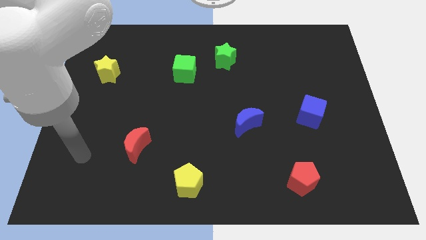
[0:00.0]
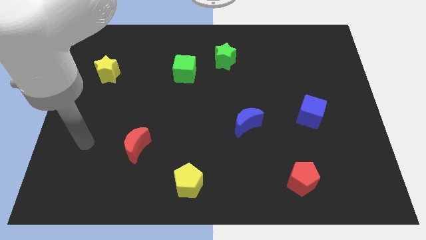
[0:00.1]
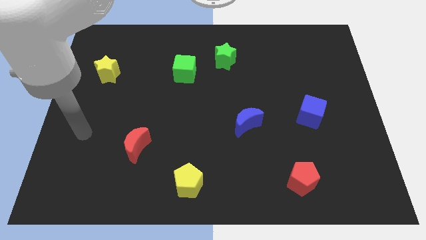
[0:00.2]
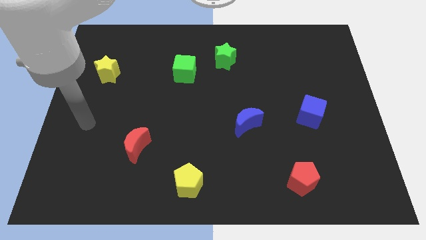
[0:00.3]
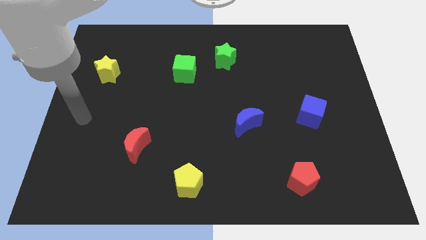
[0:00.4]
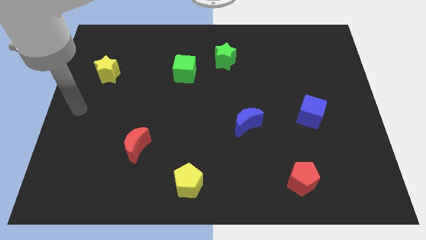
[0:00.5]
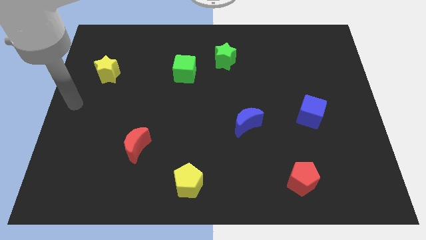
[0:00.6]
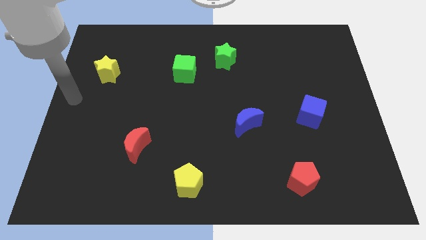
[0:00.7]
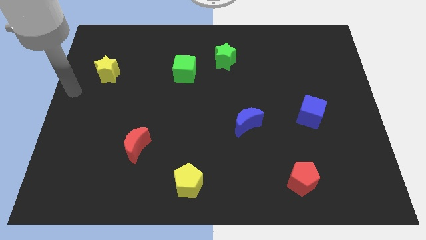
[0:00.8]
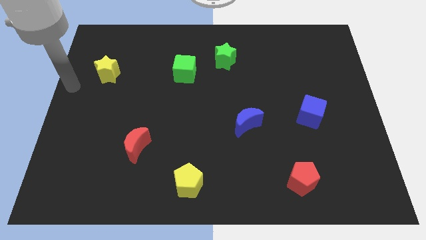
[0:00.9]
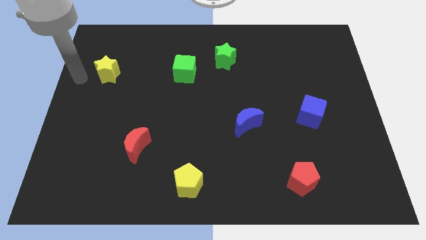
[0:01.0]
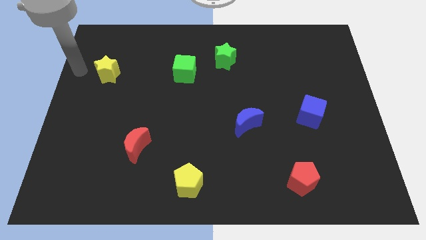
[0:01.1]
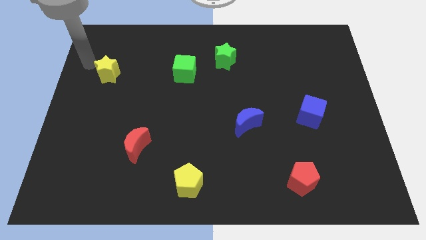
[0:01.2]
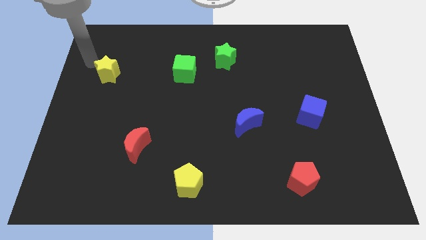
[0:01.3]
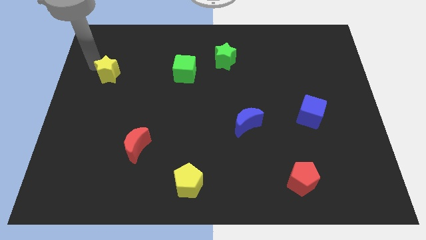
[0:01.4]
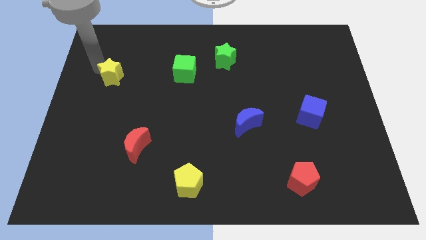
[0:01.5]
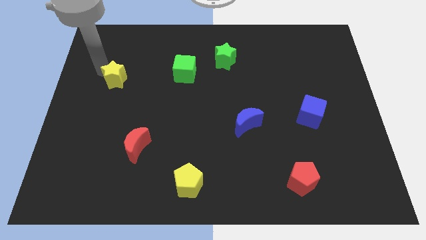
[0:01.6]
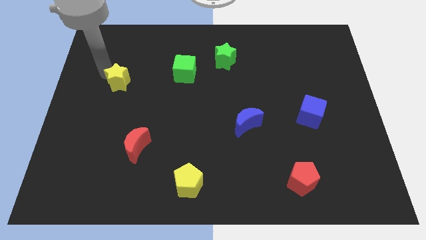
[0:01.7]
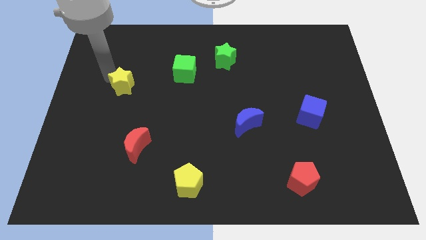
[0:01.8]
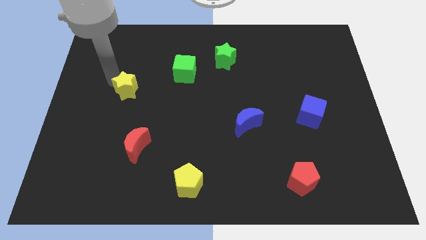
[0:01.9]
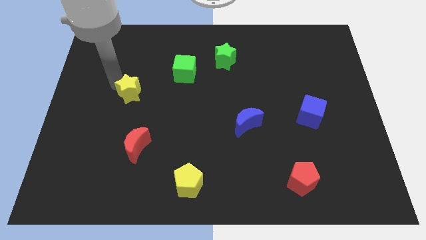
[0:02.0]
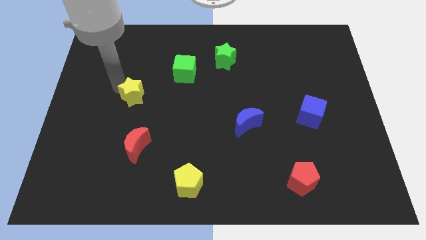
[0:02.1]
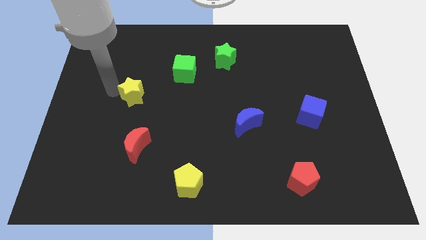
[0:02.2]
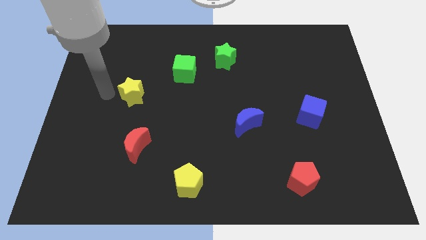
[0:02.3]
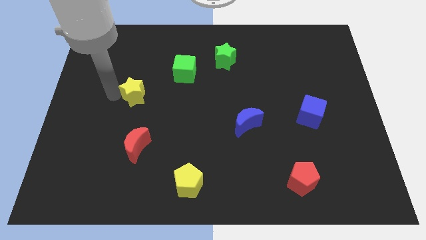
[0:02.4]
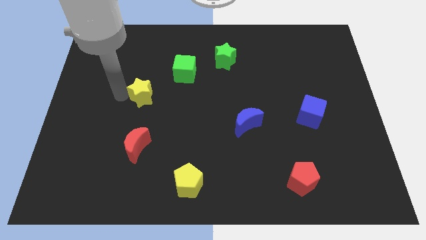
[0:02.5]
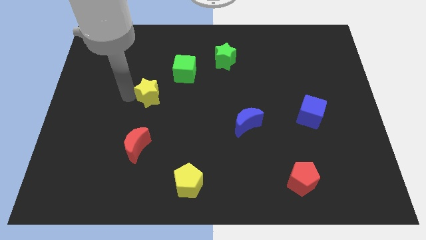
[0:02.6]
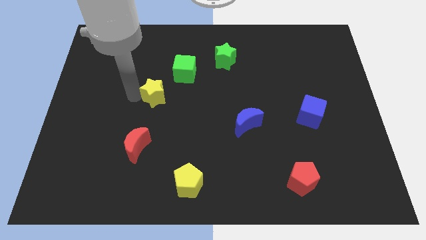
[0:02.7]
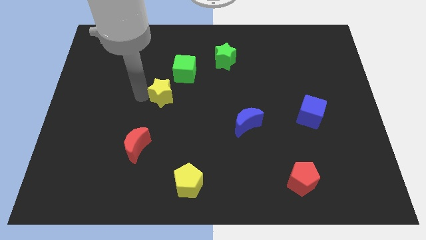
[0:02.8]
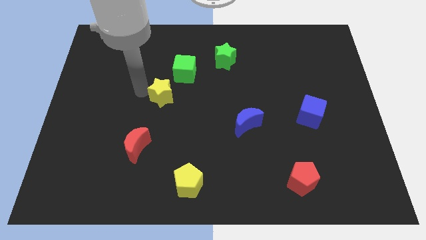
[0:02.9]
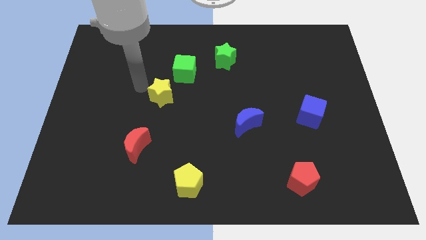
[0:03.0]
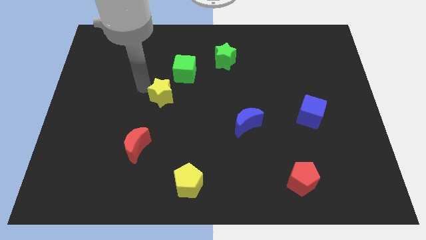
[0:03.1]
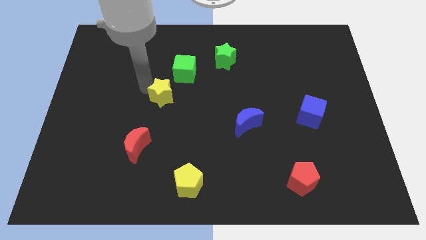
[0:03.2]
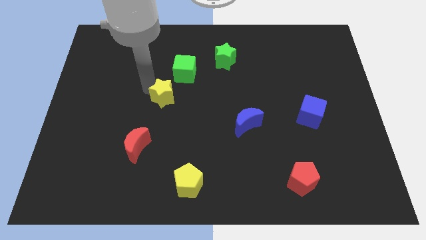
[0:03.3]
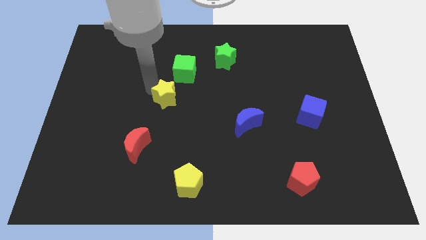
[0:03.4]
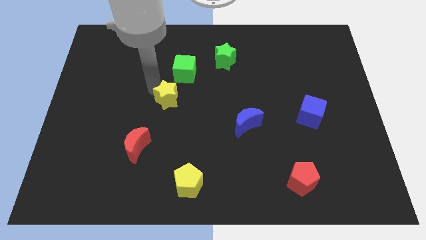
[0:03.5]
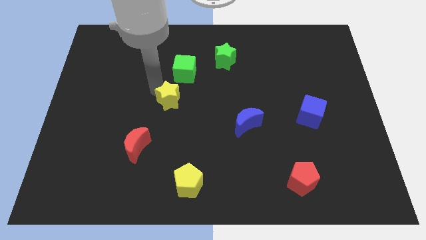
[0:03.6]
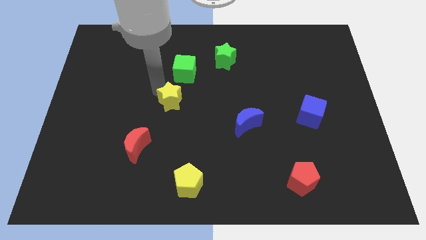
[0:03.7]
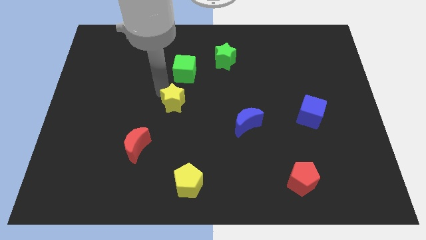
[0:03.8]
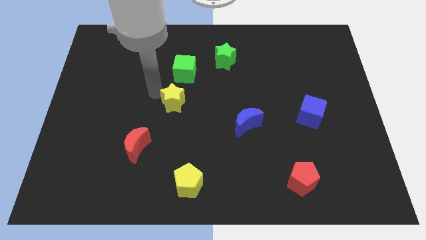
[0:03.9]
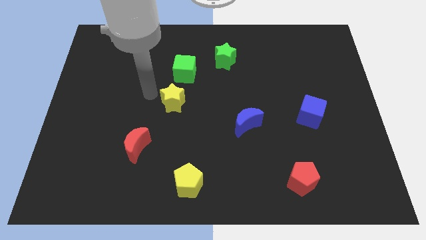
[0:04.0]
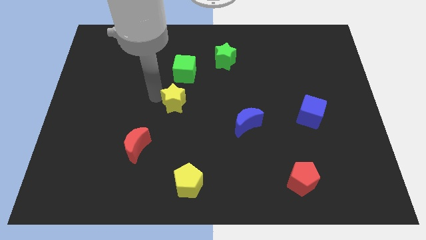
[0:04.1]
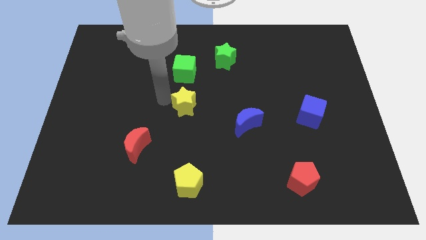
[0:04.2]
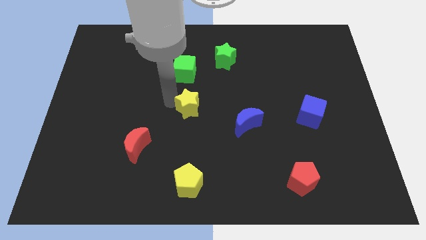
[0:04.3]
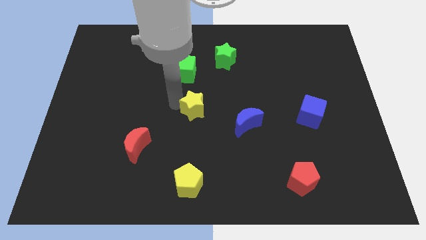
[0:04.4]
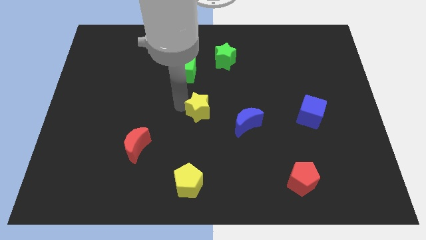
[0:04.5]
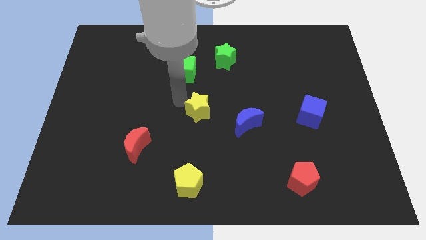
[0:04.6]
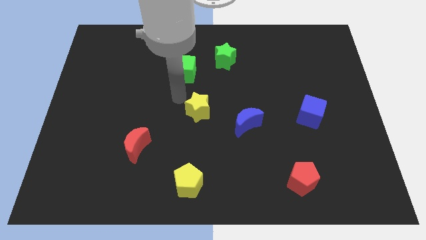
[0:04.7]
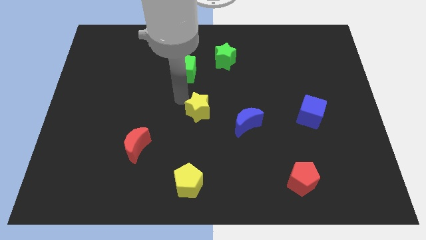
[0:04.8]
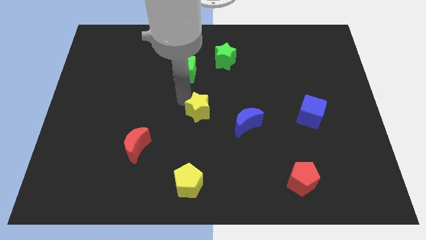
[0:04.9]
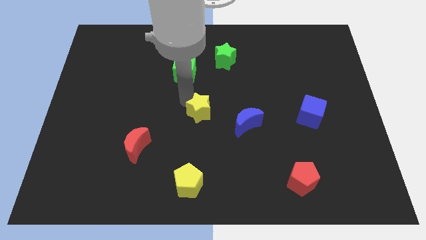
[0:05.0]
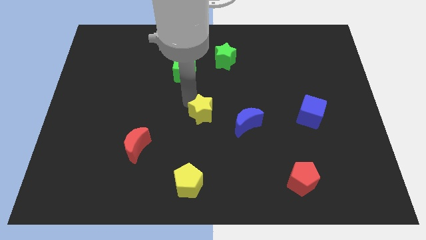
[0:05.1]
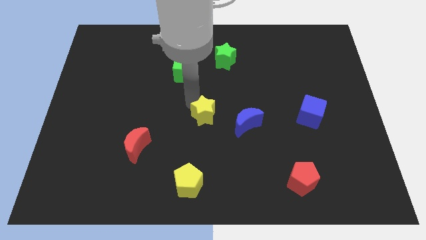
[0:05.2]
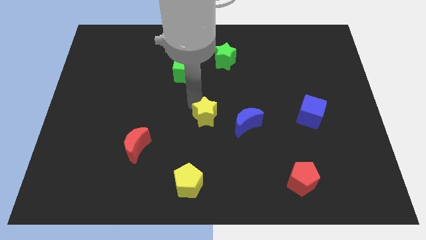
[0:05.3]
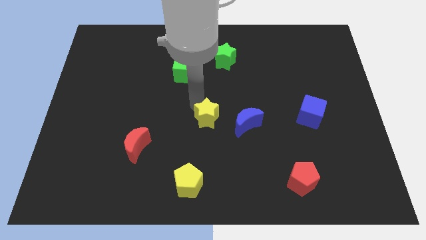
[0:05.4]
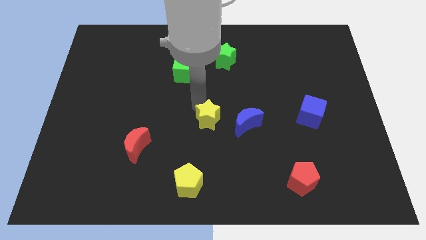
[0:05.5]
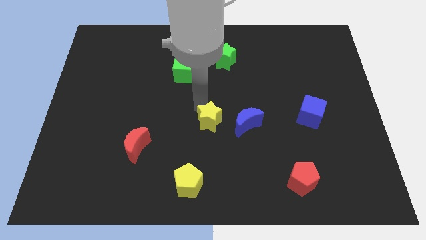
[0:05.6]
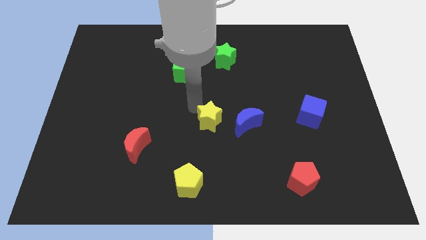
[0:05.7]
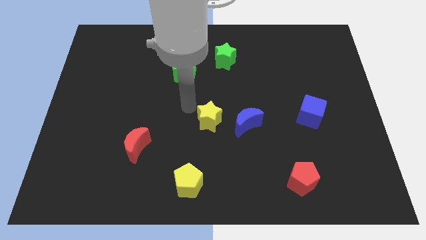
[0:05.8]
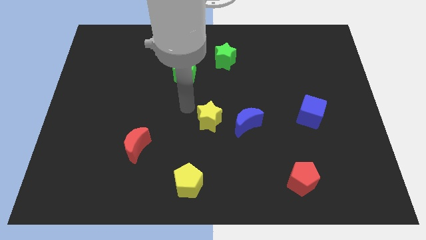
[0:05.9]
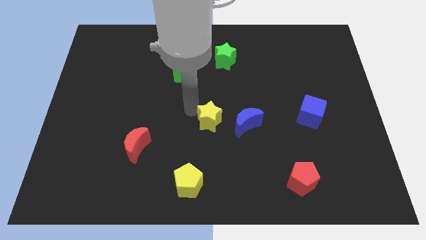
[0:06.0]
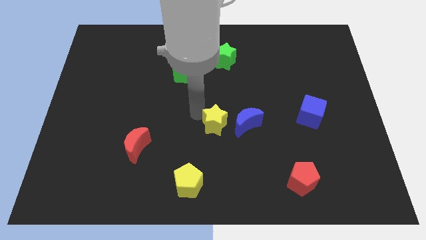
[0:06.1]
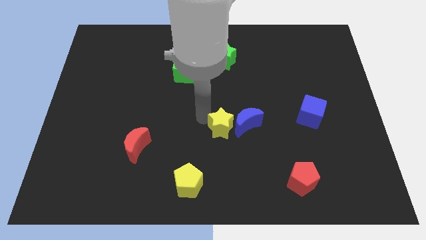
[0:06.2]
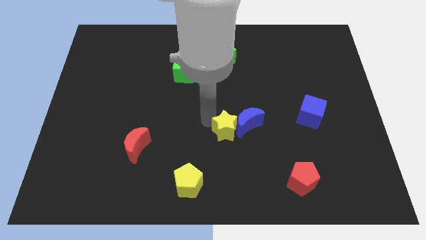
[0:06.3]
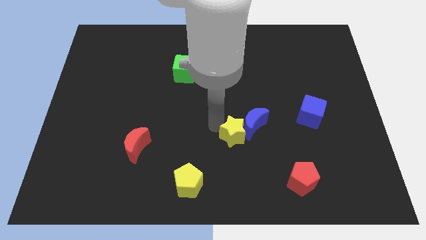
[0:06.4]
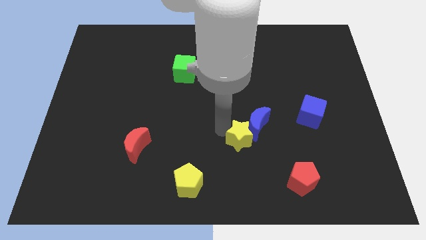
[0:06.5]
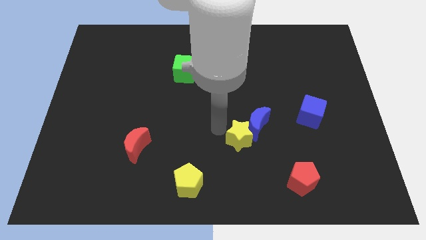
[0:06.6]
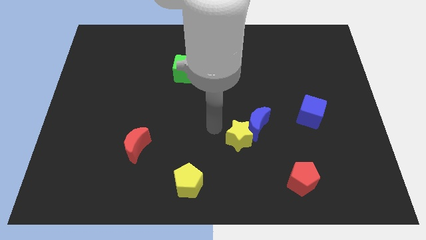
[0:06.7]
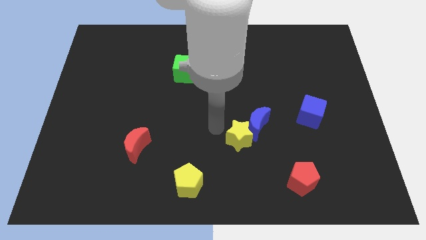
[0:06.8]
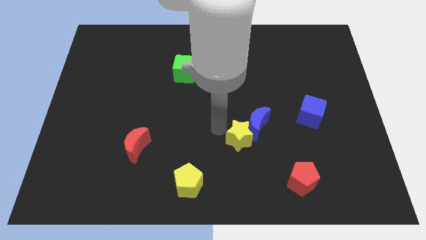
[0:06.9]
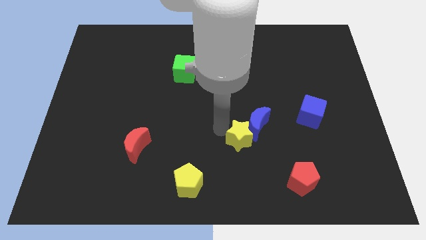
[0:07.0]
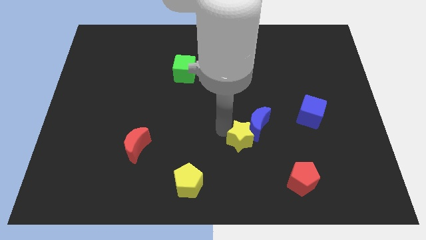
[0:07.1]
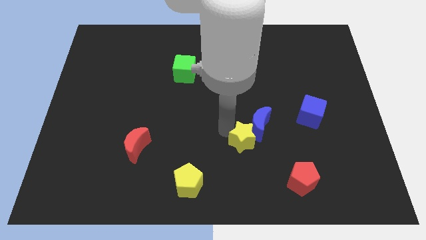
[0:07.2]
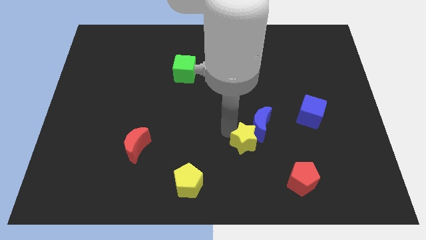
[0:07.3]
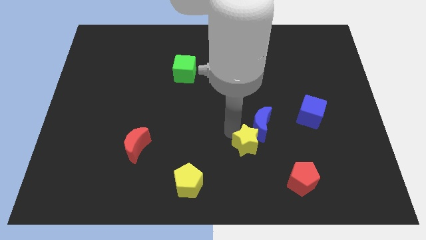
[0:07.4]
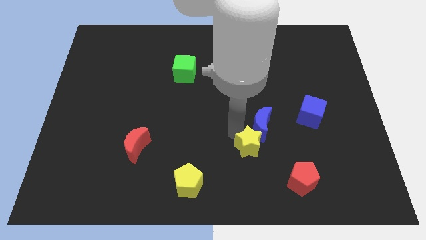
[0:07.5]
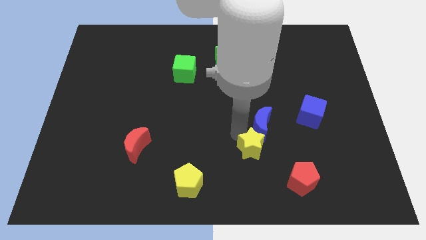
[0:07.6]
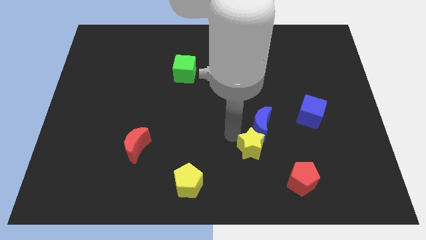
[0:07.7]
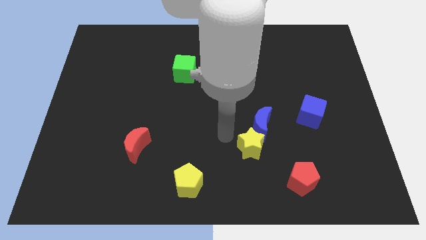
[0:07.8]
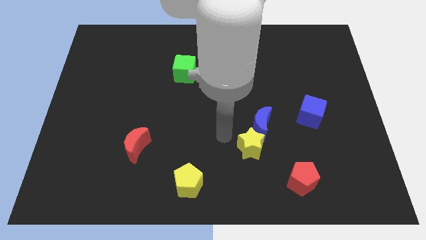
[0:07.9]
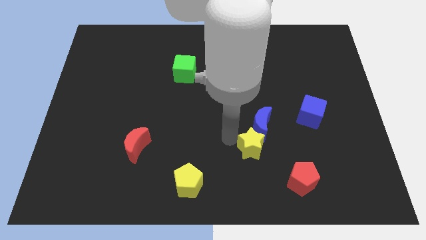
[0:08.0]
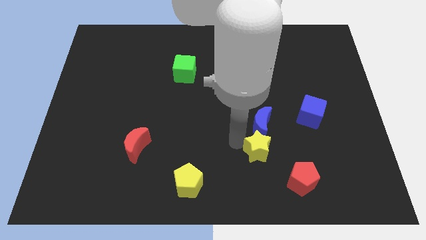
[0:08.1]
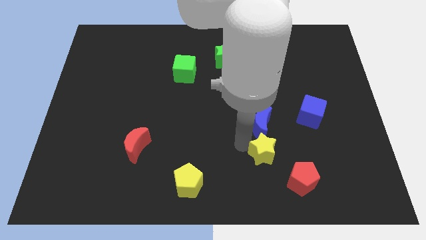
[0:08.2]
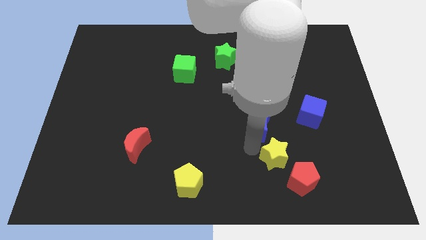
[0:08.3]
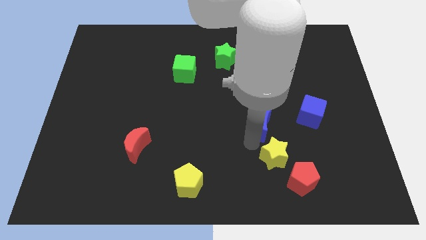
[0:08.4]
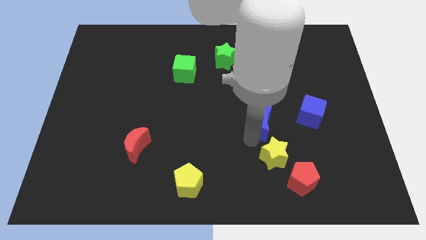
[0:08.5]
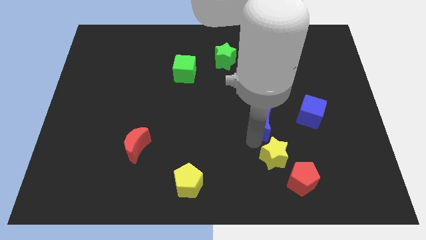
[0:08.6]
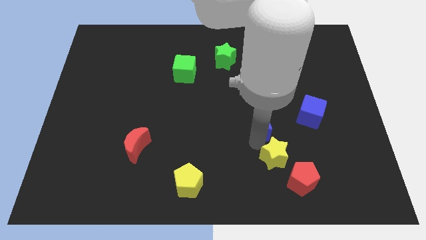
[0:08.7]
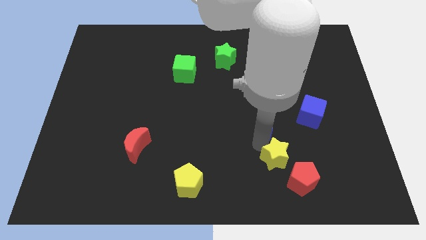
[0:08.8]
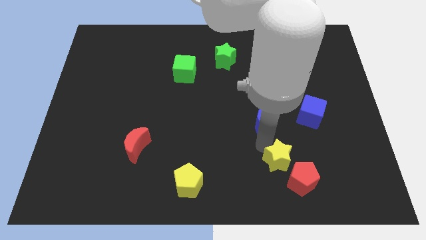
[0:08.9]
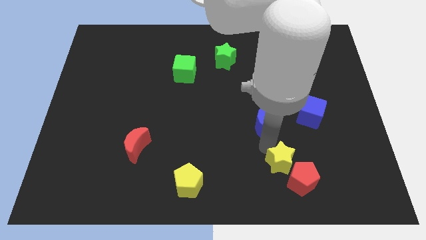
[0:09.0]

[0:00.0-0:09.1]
push the yellow star close to the red pentagon
